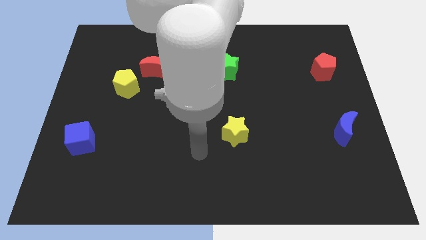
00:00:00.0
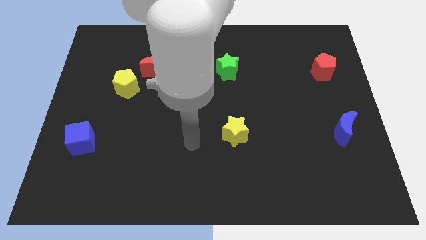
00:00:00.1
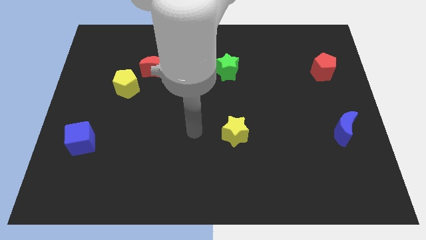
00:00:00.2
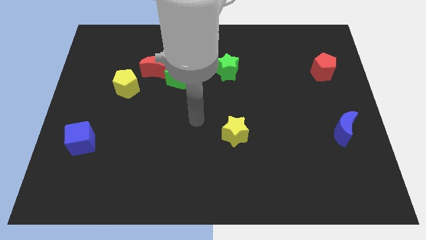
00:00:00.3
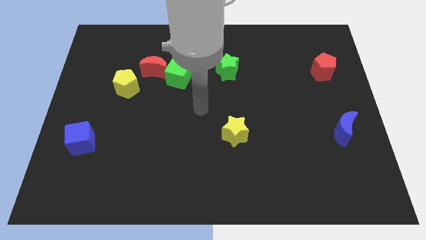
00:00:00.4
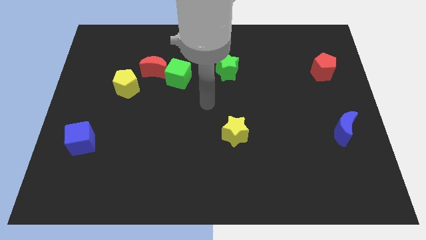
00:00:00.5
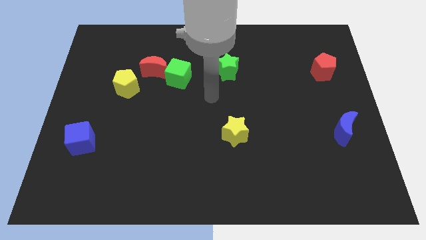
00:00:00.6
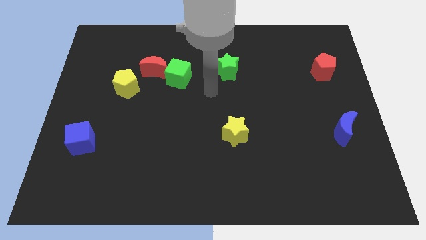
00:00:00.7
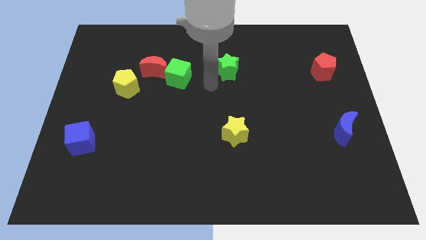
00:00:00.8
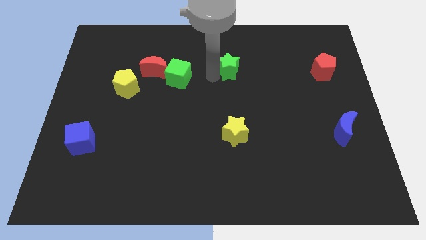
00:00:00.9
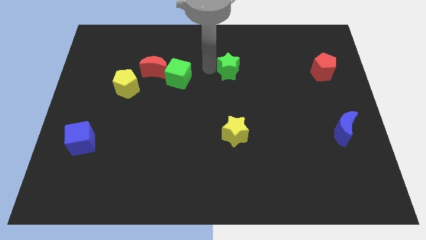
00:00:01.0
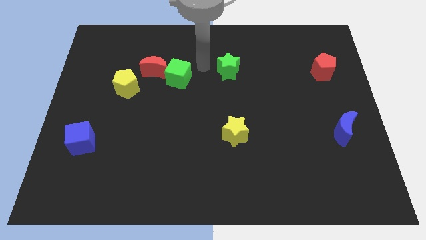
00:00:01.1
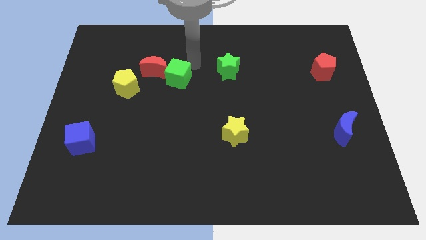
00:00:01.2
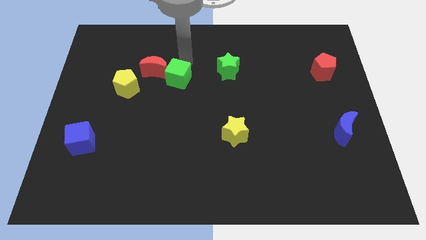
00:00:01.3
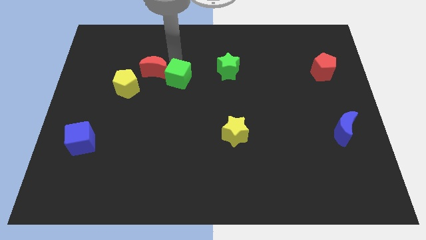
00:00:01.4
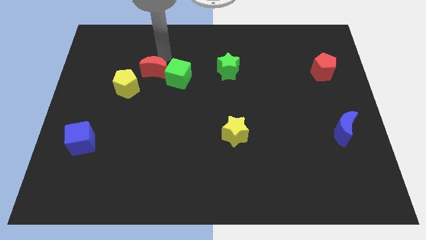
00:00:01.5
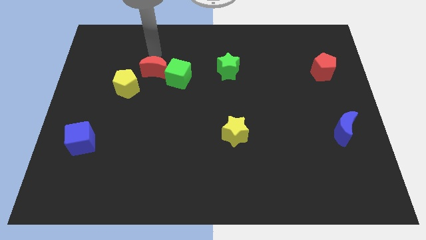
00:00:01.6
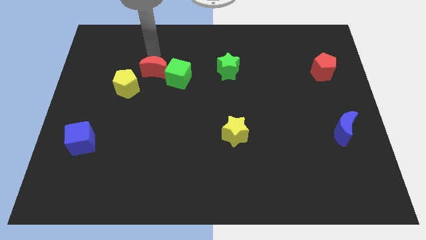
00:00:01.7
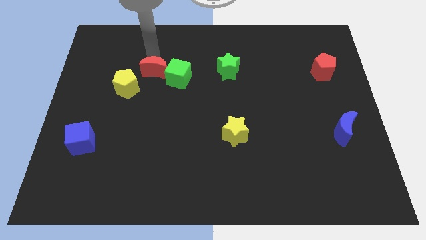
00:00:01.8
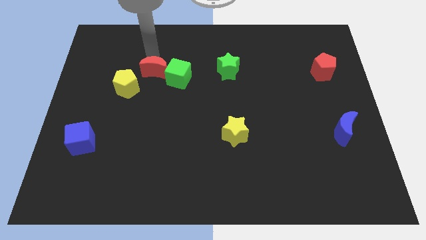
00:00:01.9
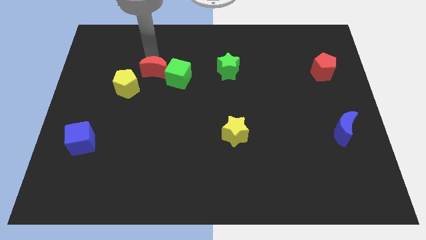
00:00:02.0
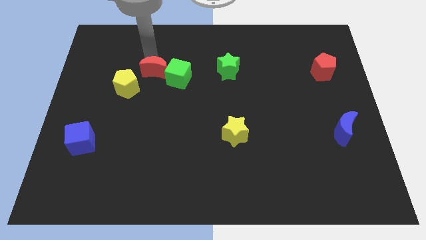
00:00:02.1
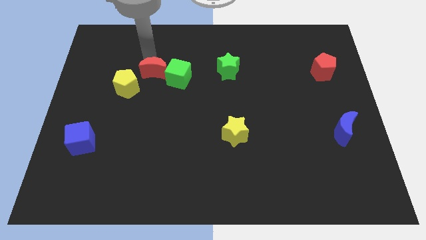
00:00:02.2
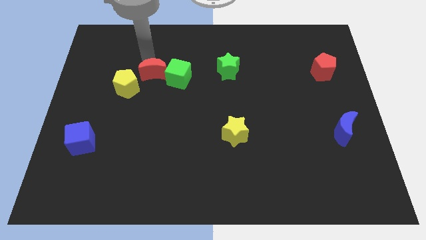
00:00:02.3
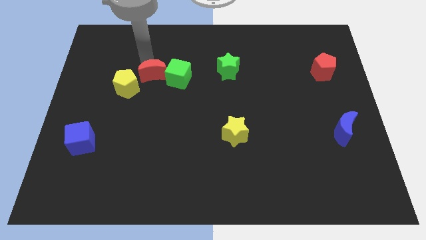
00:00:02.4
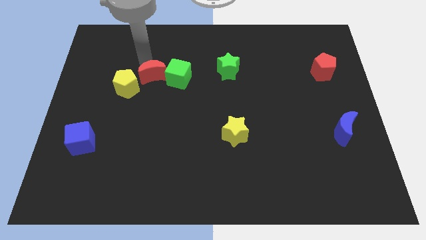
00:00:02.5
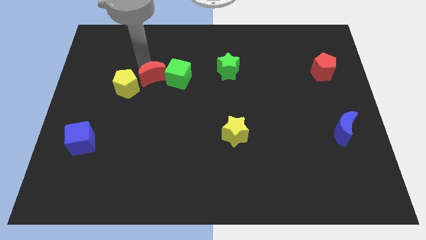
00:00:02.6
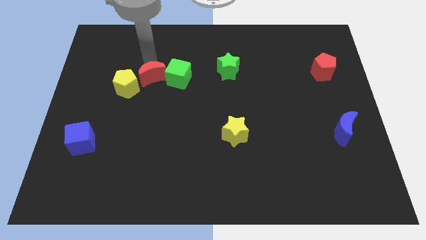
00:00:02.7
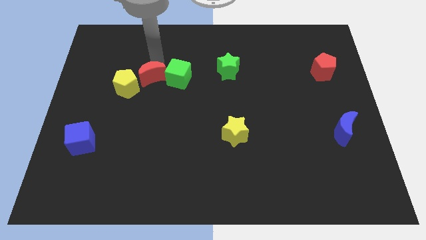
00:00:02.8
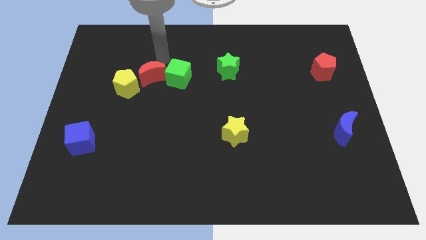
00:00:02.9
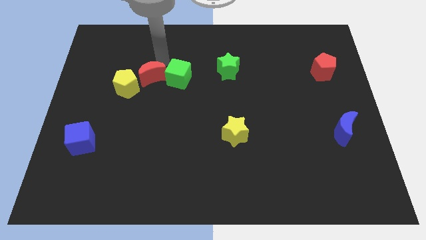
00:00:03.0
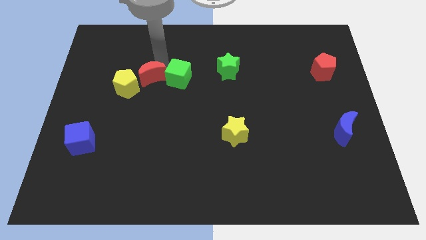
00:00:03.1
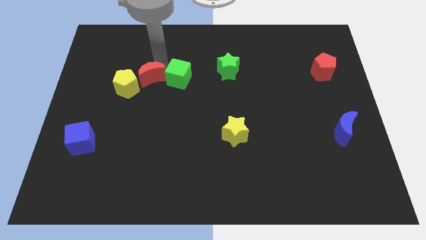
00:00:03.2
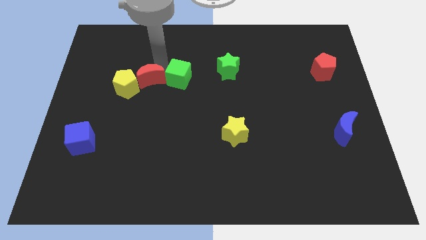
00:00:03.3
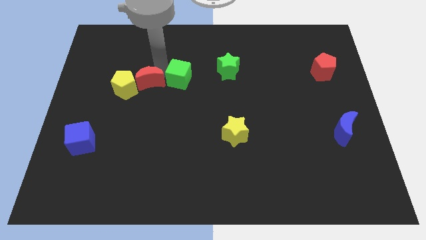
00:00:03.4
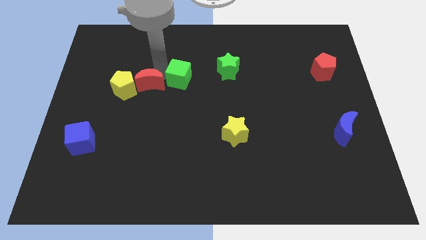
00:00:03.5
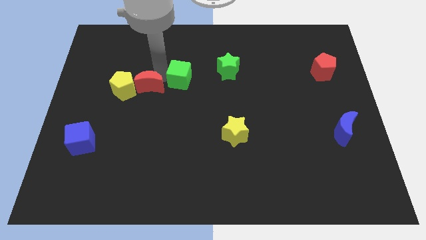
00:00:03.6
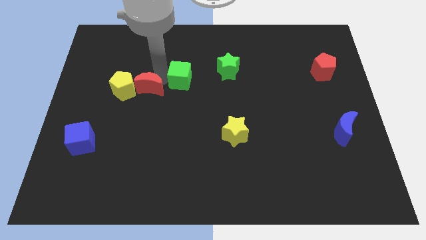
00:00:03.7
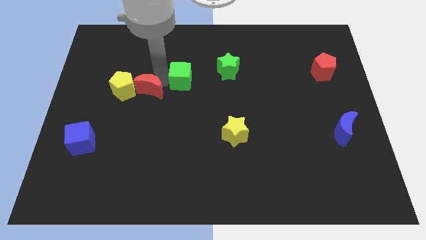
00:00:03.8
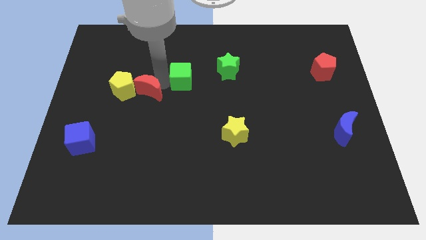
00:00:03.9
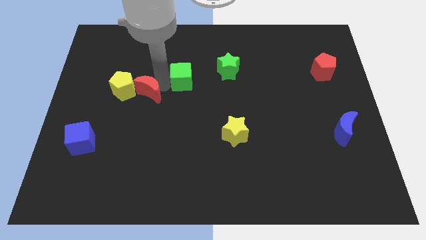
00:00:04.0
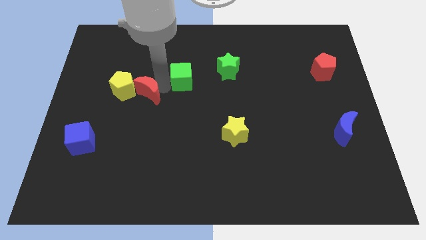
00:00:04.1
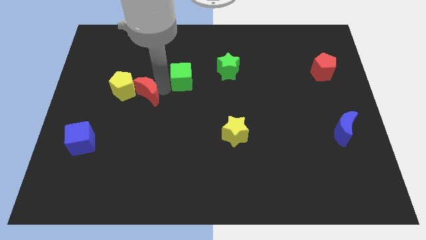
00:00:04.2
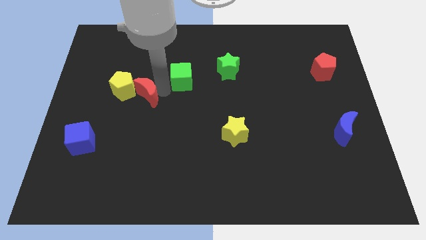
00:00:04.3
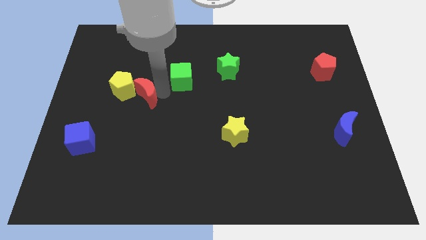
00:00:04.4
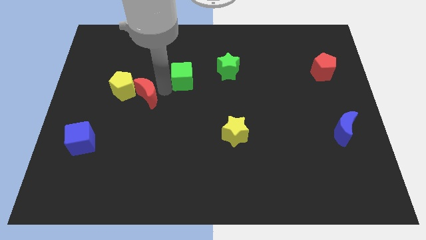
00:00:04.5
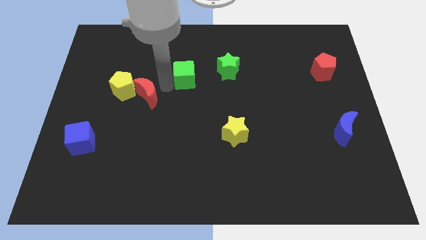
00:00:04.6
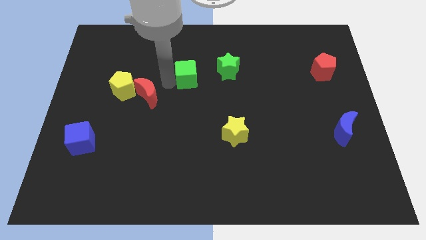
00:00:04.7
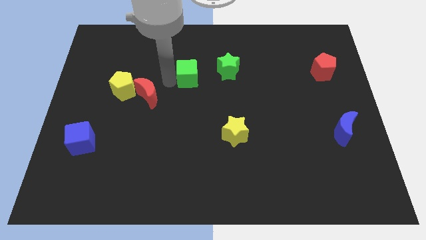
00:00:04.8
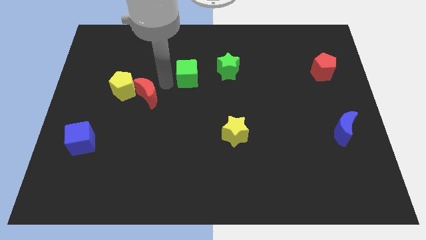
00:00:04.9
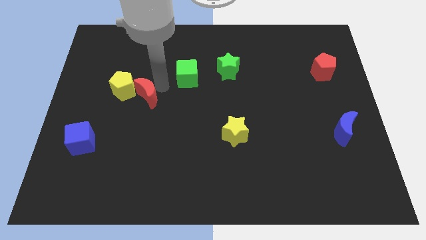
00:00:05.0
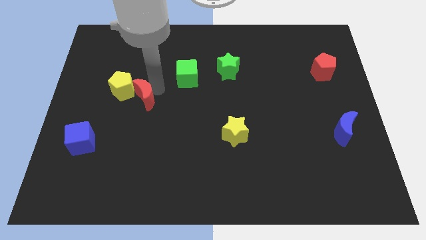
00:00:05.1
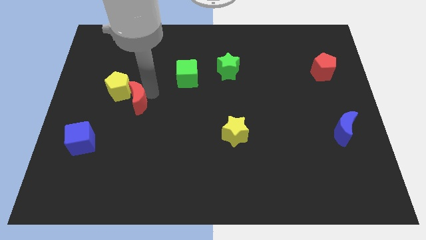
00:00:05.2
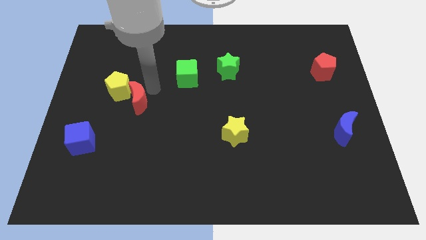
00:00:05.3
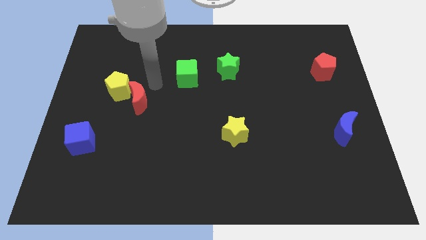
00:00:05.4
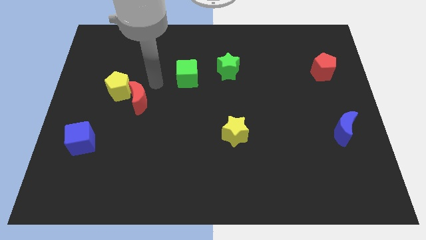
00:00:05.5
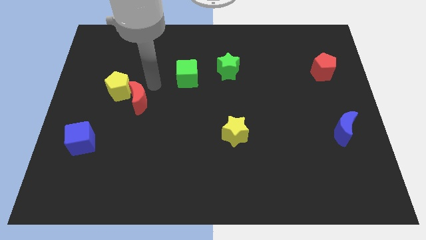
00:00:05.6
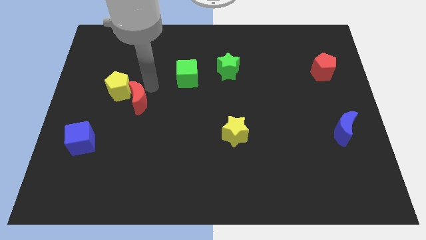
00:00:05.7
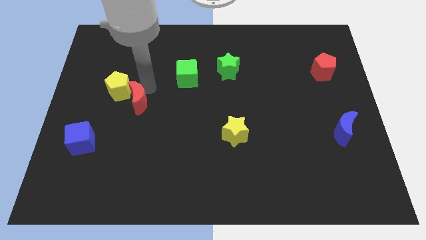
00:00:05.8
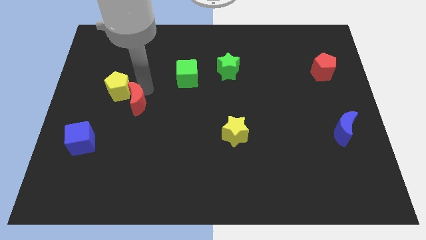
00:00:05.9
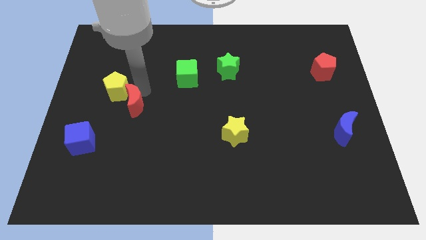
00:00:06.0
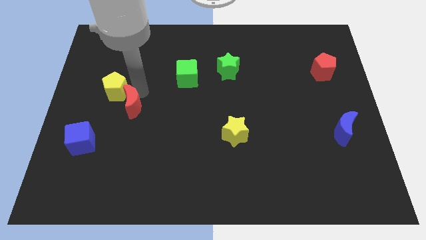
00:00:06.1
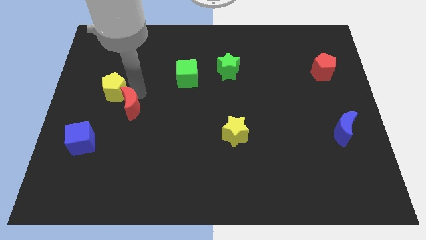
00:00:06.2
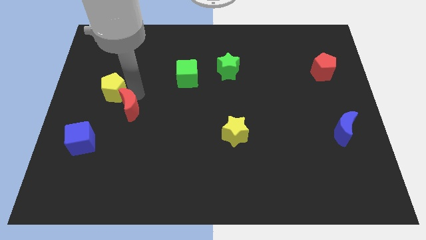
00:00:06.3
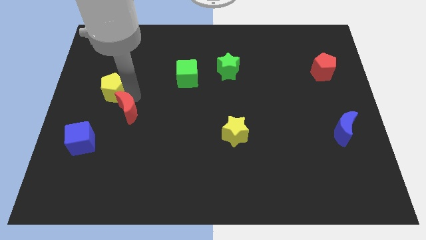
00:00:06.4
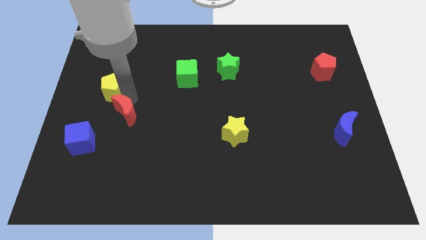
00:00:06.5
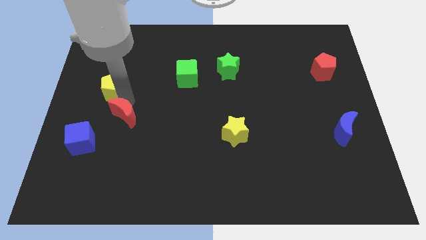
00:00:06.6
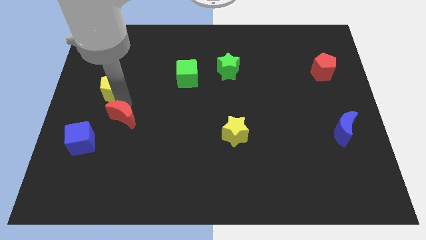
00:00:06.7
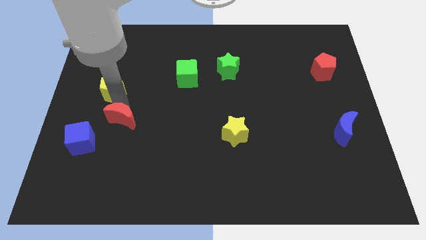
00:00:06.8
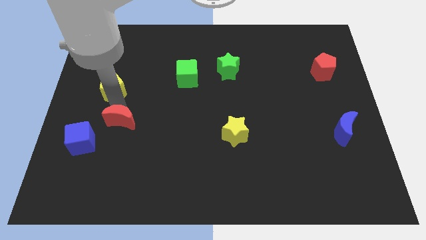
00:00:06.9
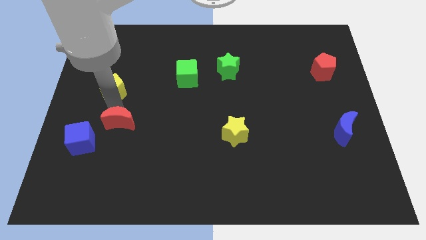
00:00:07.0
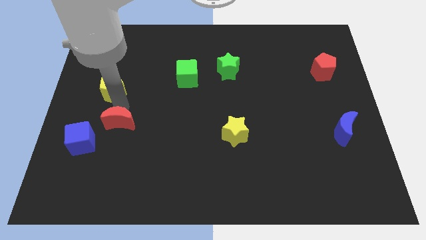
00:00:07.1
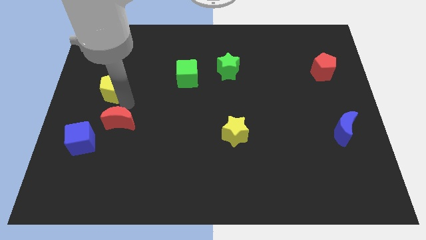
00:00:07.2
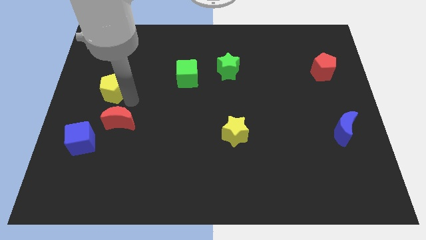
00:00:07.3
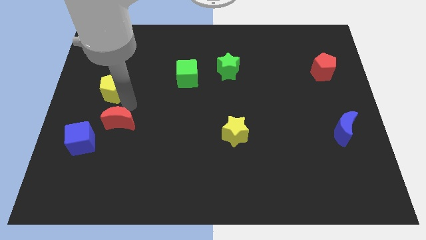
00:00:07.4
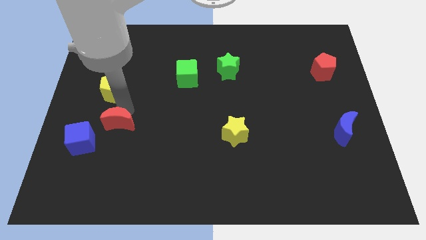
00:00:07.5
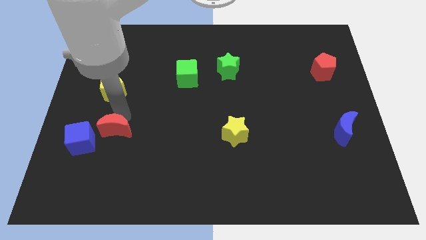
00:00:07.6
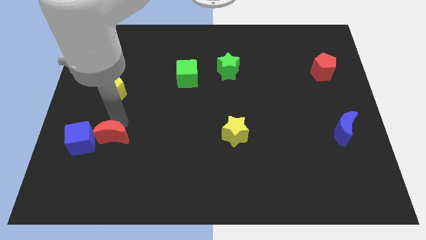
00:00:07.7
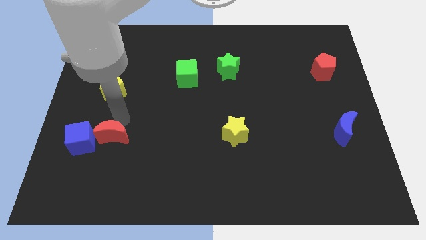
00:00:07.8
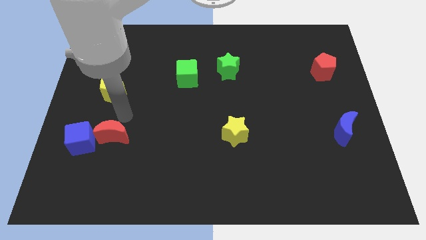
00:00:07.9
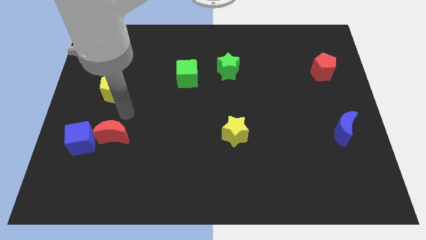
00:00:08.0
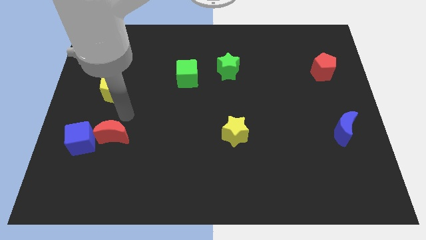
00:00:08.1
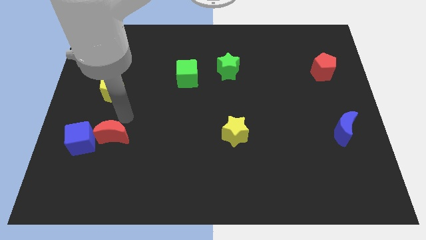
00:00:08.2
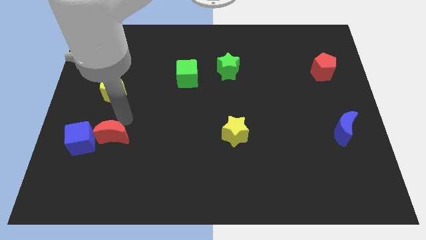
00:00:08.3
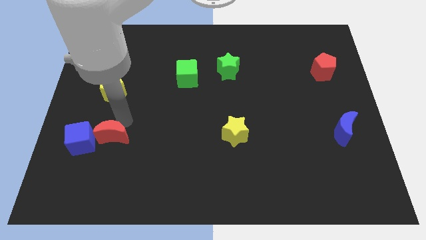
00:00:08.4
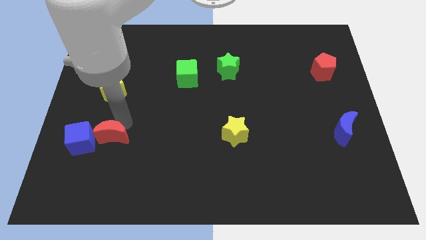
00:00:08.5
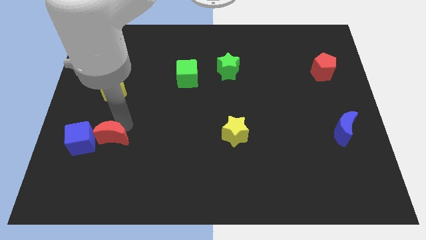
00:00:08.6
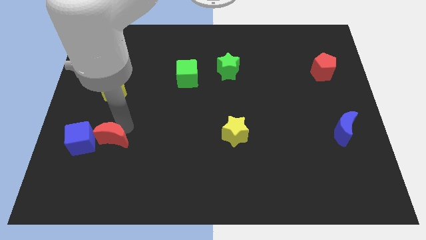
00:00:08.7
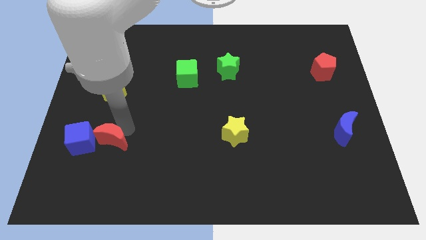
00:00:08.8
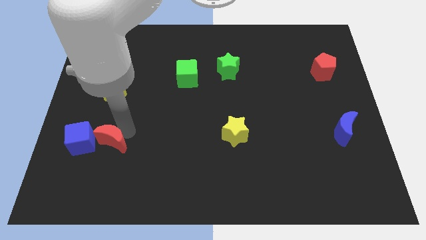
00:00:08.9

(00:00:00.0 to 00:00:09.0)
put the red moon diagonally down and to the right of the blue cube
